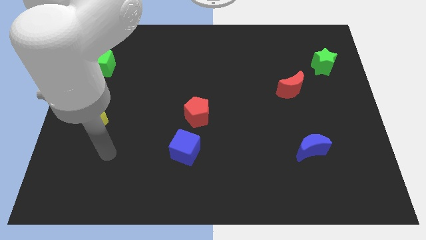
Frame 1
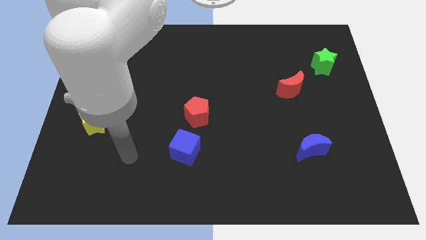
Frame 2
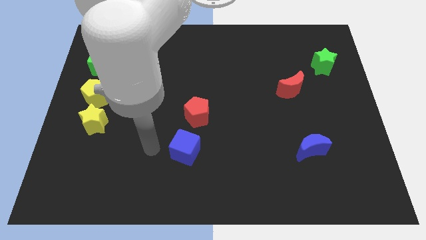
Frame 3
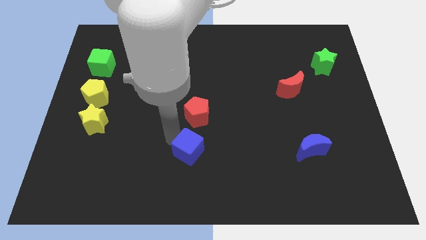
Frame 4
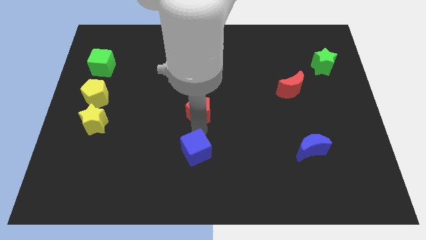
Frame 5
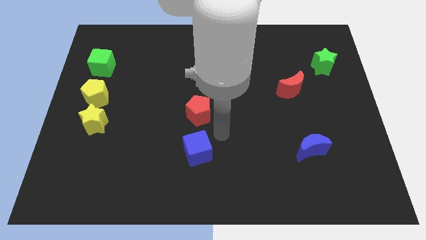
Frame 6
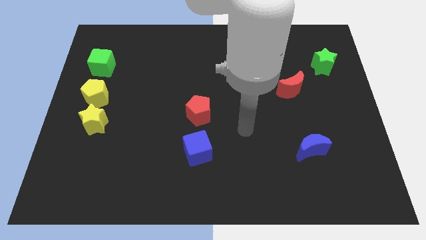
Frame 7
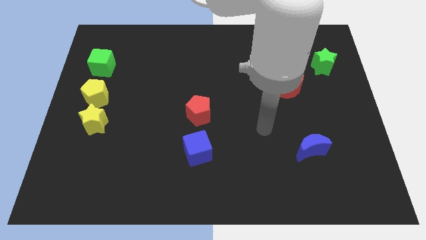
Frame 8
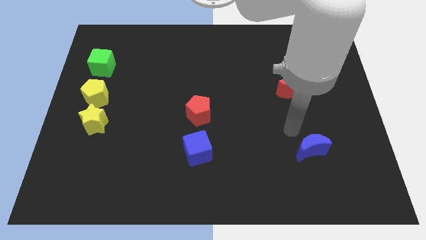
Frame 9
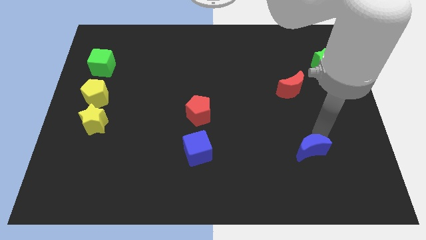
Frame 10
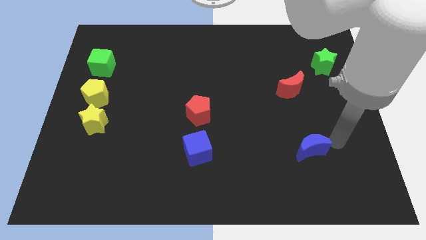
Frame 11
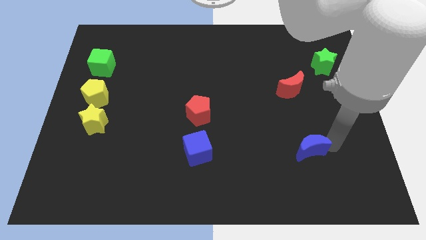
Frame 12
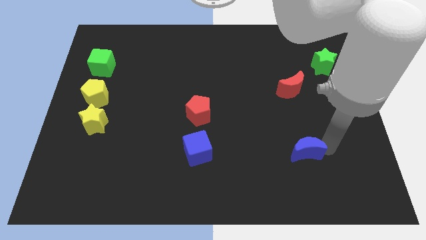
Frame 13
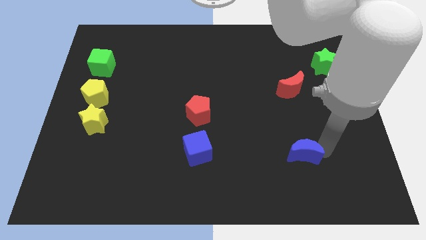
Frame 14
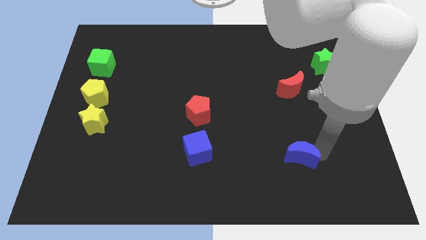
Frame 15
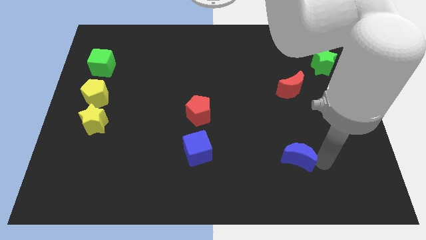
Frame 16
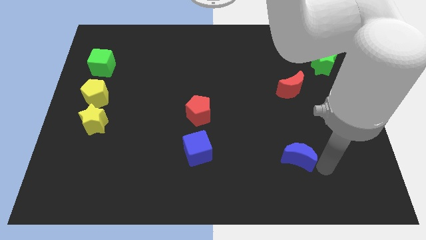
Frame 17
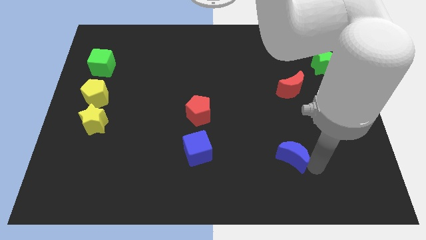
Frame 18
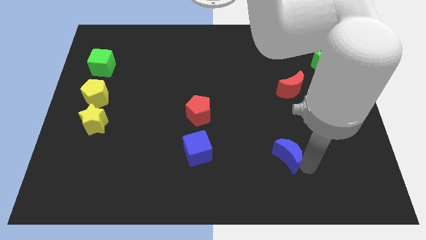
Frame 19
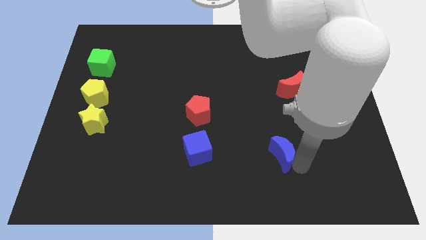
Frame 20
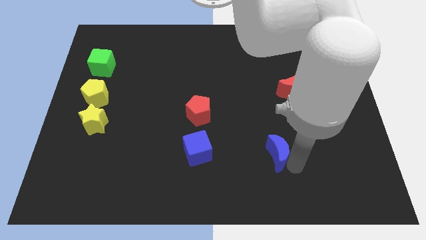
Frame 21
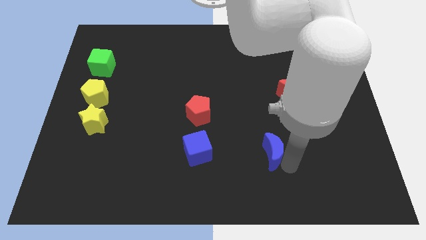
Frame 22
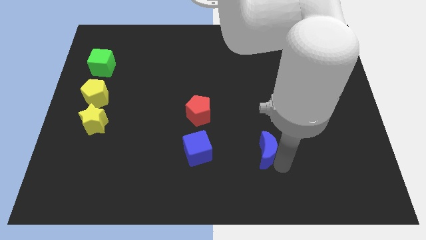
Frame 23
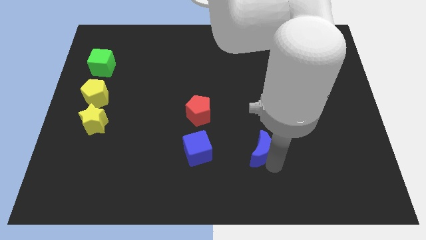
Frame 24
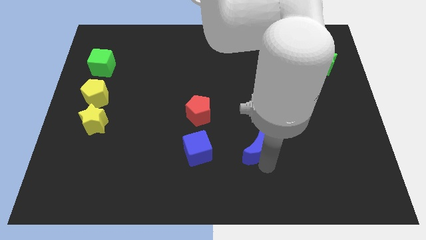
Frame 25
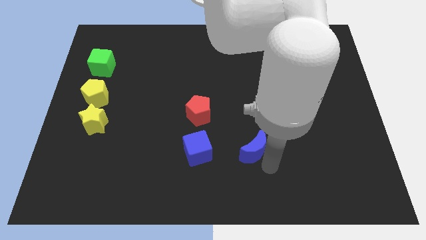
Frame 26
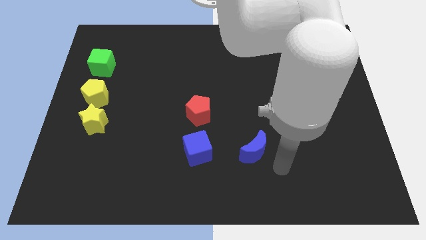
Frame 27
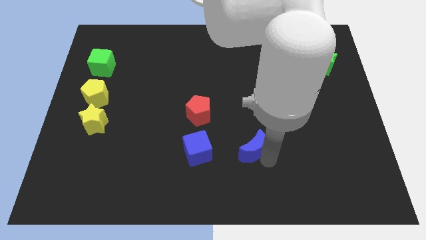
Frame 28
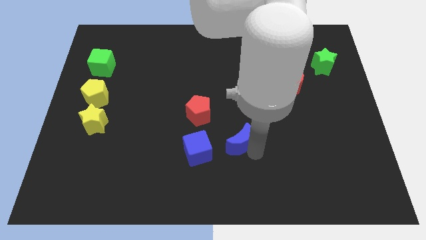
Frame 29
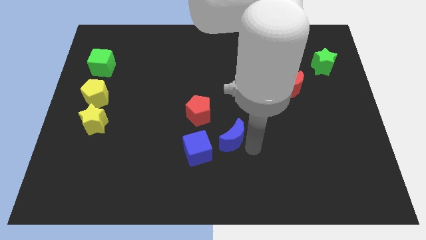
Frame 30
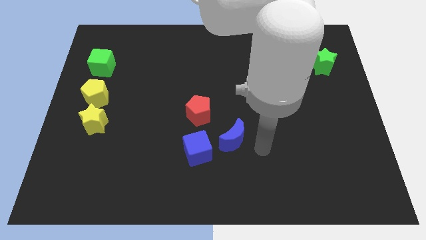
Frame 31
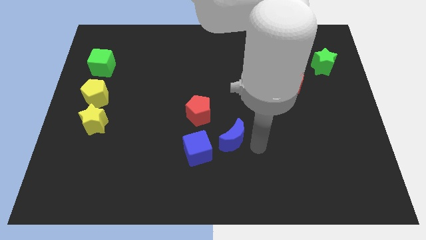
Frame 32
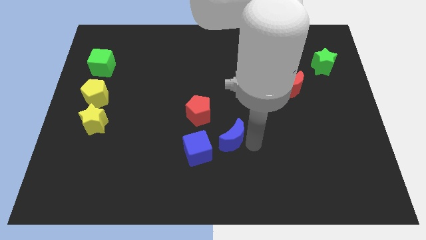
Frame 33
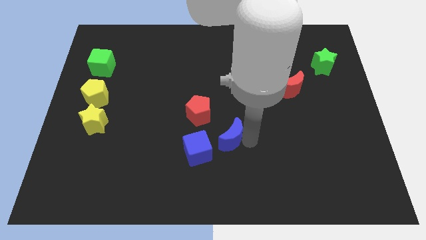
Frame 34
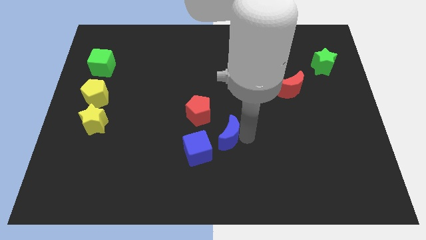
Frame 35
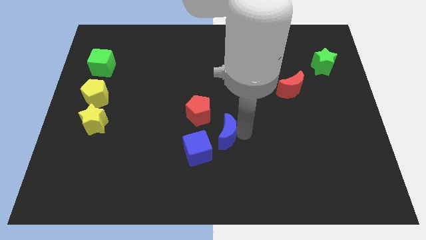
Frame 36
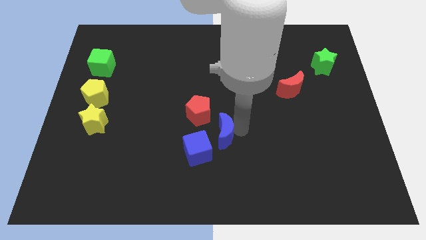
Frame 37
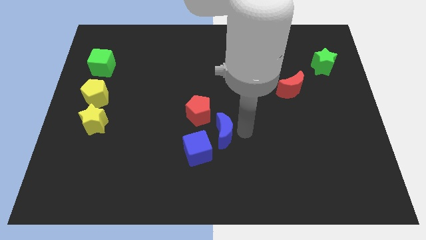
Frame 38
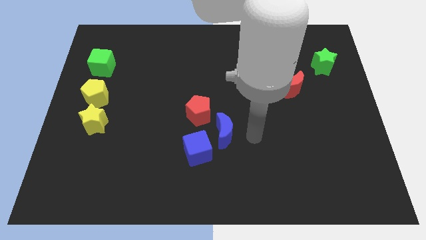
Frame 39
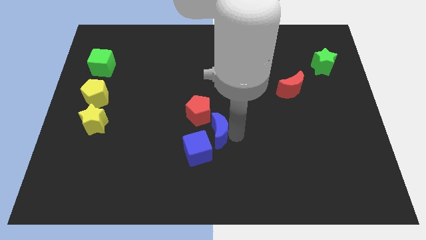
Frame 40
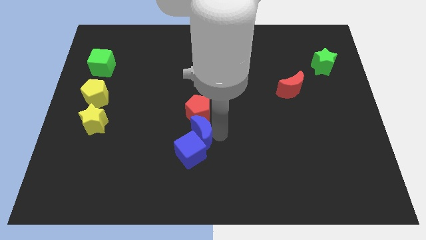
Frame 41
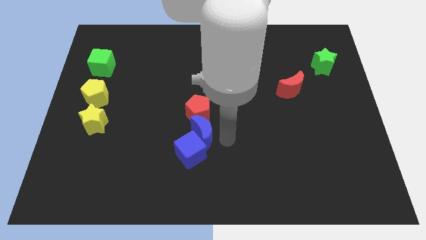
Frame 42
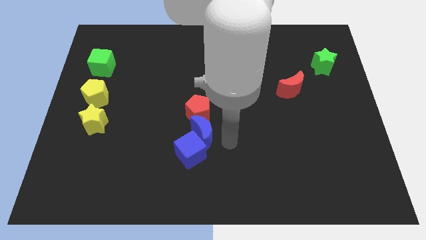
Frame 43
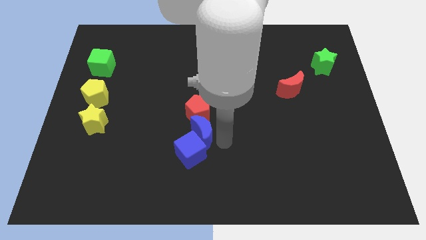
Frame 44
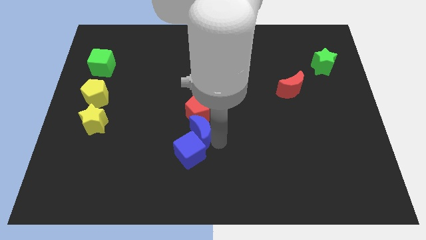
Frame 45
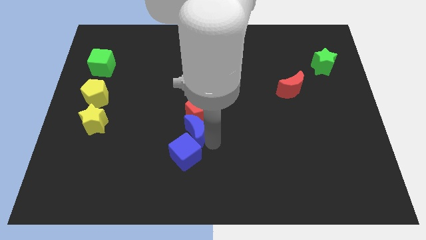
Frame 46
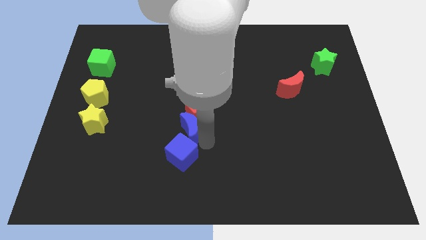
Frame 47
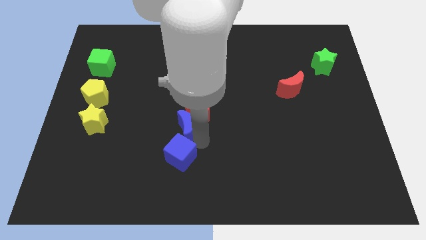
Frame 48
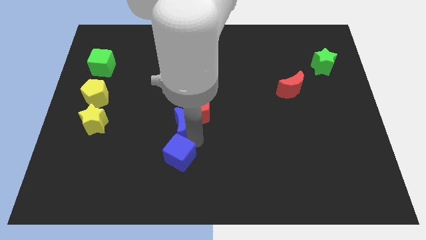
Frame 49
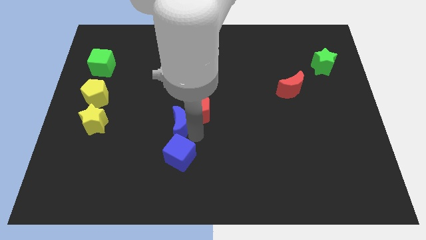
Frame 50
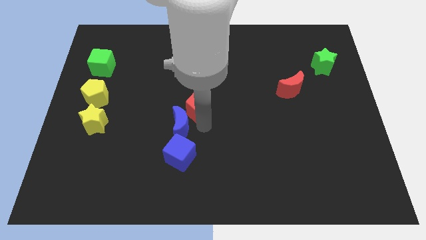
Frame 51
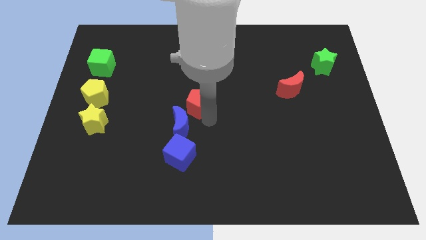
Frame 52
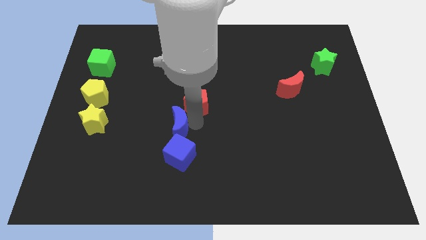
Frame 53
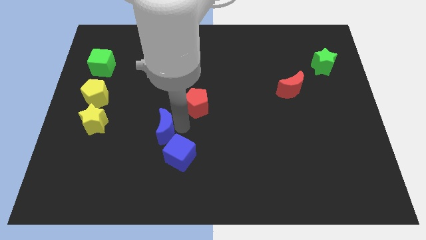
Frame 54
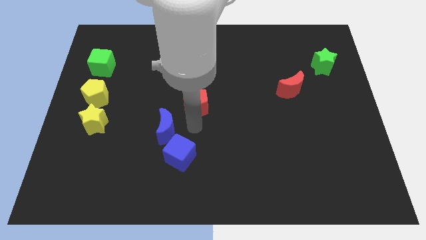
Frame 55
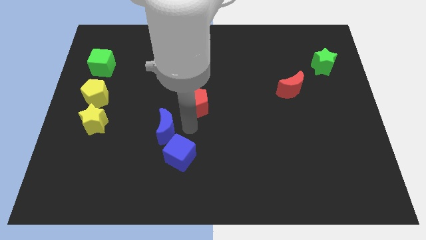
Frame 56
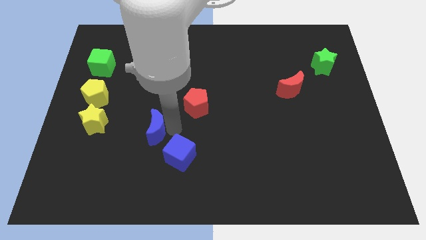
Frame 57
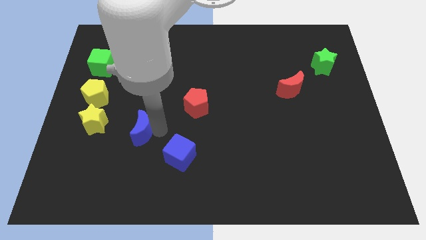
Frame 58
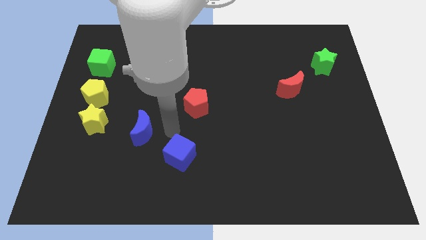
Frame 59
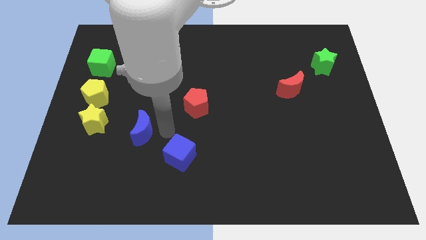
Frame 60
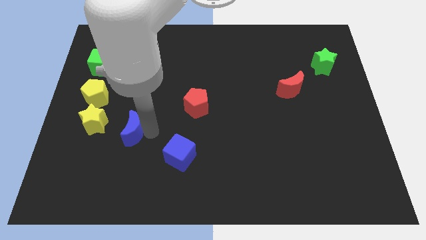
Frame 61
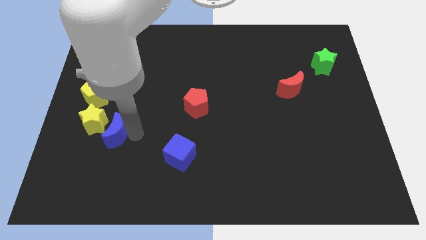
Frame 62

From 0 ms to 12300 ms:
move the blue moon to the yellow star

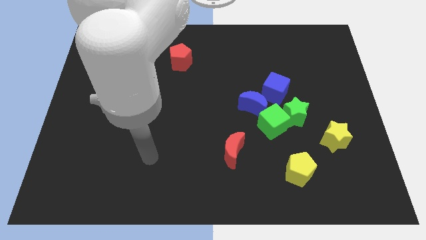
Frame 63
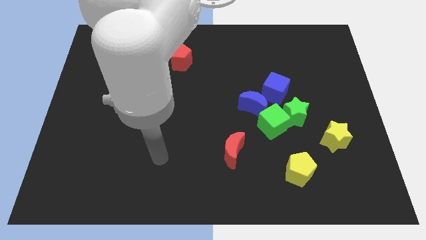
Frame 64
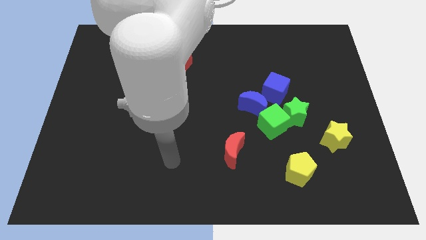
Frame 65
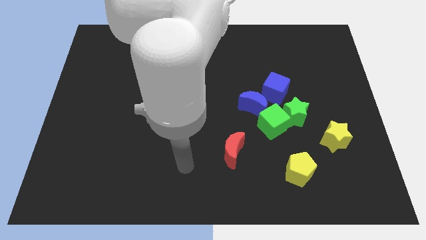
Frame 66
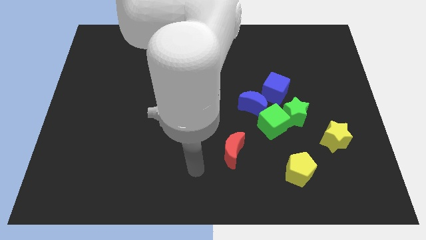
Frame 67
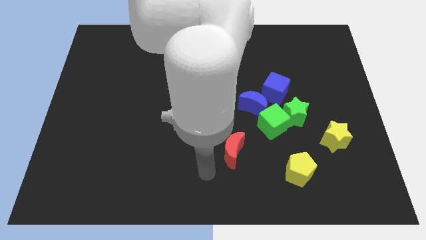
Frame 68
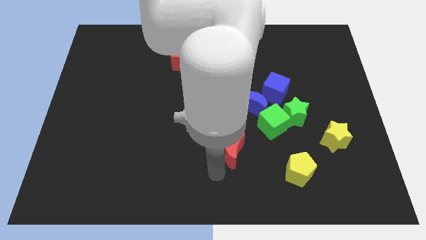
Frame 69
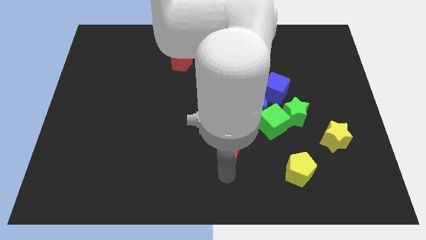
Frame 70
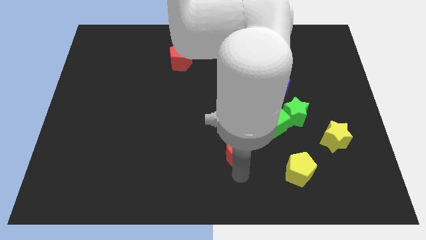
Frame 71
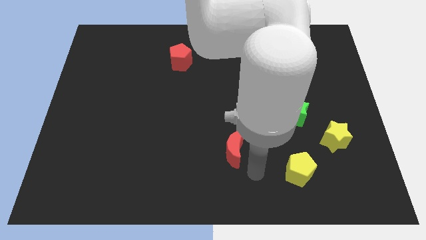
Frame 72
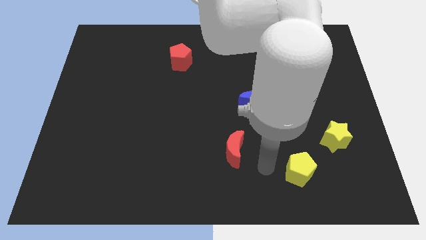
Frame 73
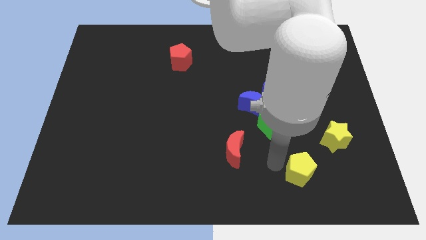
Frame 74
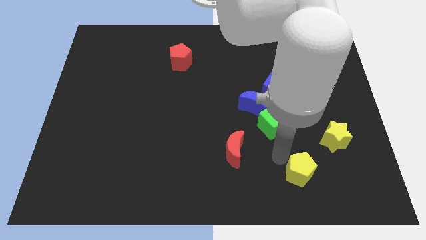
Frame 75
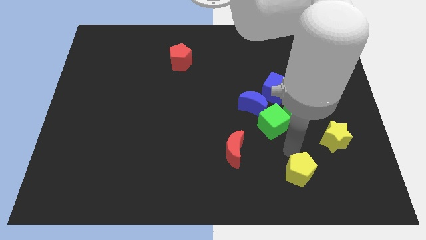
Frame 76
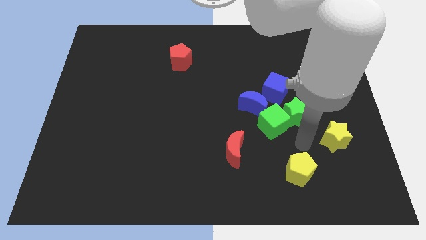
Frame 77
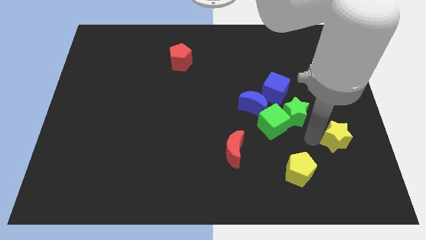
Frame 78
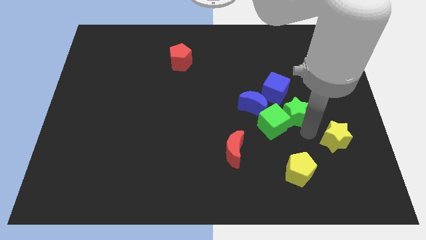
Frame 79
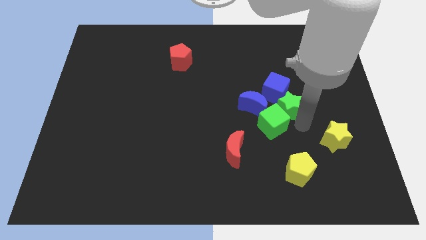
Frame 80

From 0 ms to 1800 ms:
slide the green star next to the blue cube

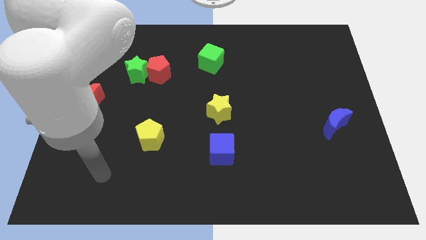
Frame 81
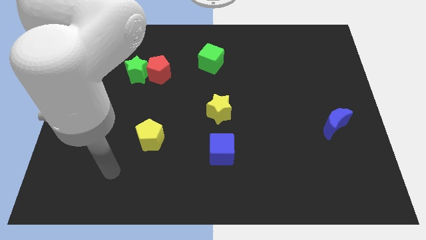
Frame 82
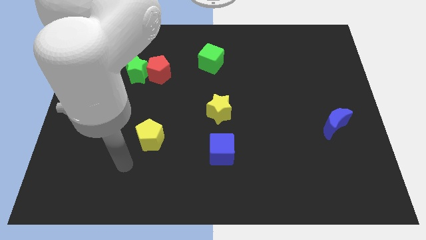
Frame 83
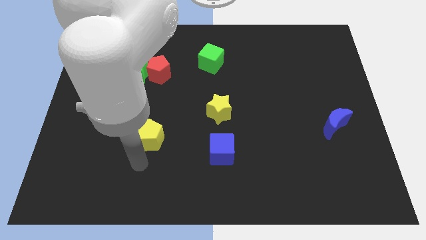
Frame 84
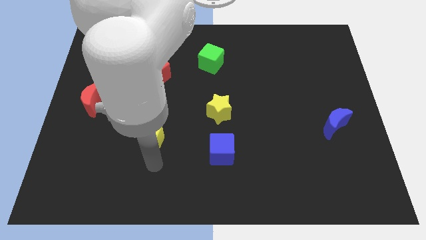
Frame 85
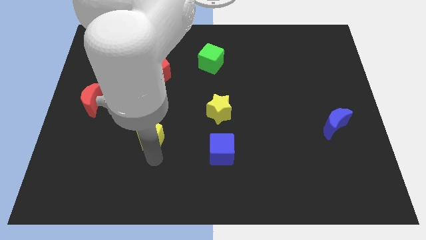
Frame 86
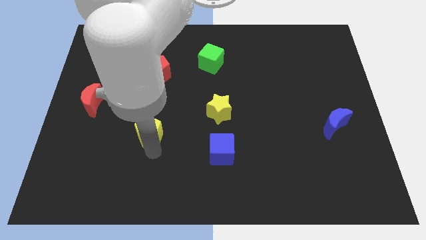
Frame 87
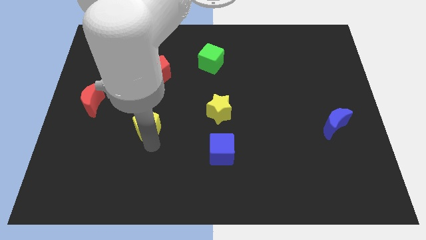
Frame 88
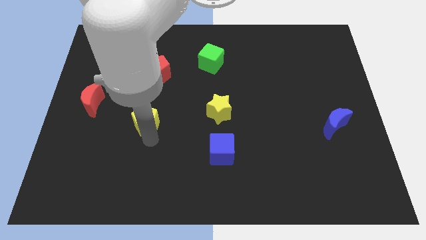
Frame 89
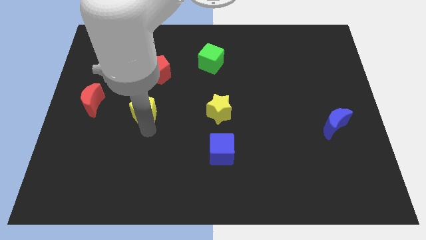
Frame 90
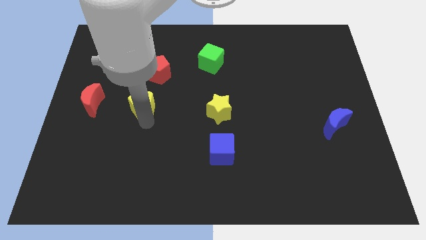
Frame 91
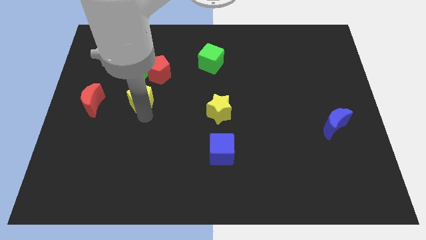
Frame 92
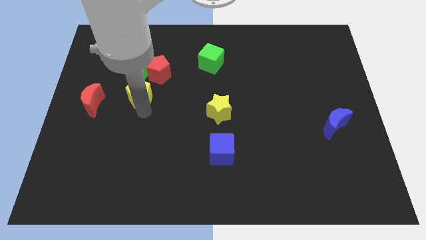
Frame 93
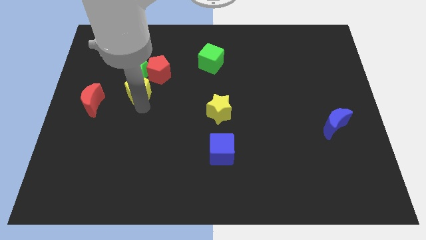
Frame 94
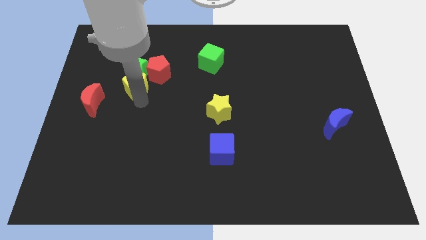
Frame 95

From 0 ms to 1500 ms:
push the yellow pentagon close to the green star
